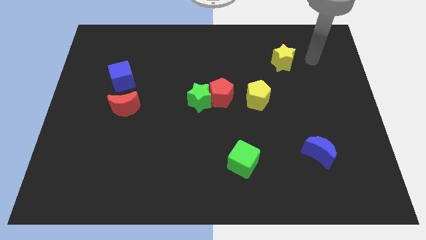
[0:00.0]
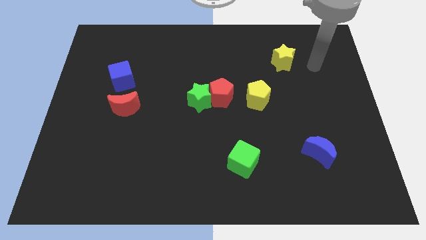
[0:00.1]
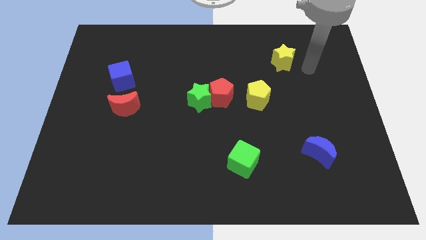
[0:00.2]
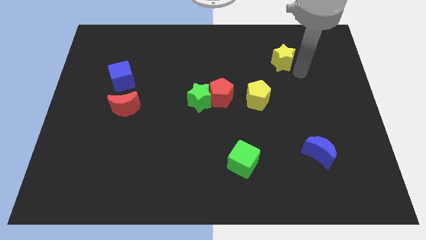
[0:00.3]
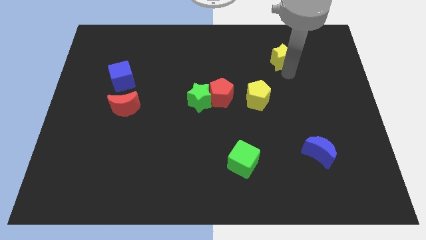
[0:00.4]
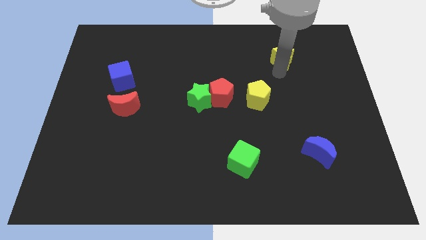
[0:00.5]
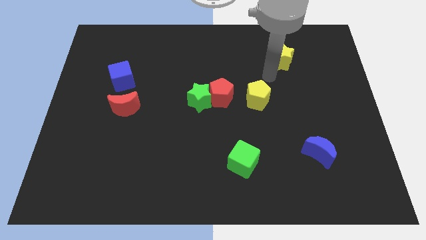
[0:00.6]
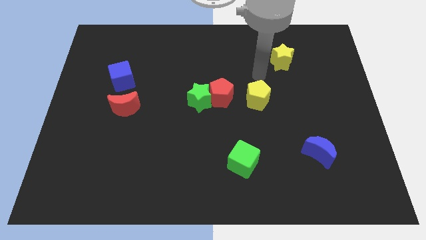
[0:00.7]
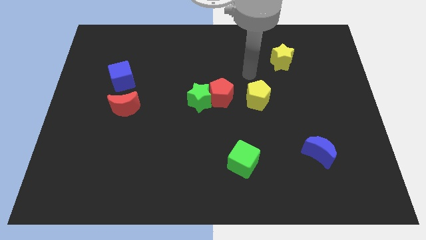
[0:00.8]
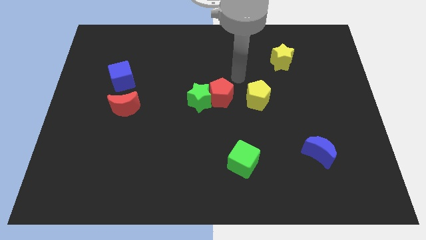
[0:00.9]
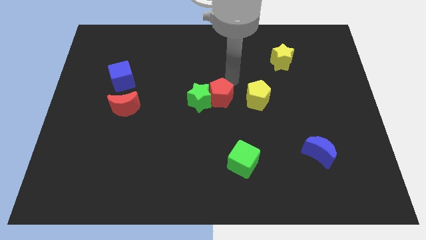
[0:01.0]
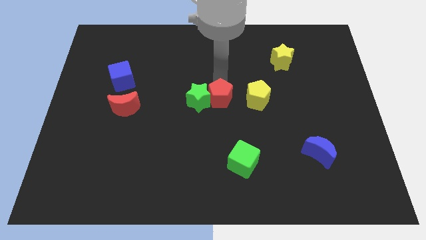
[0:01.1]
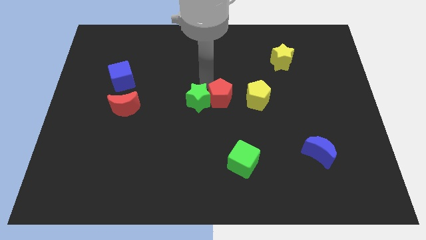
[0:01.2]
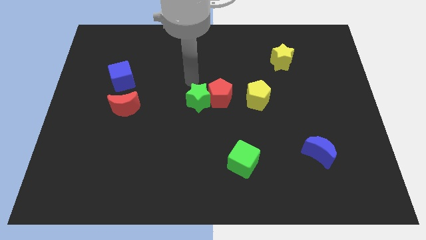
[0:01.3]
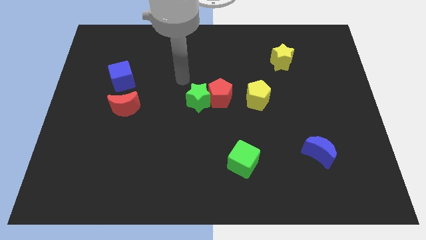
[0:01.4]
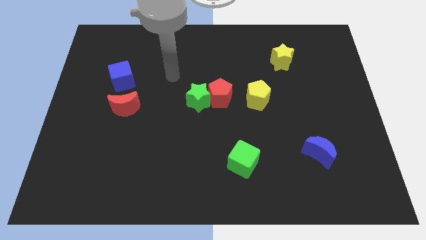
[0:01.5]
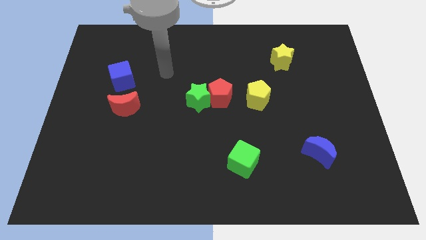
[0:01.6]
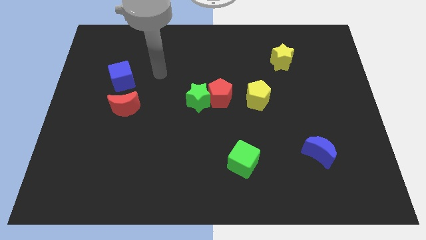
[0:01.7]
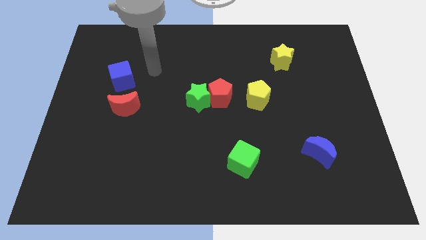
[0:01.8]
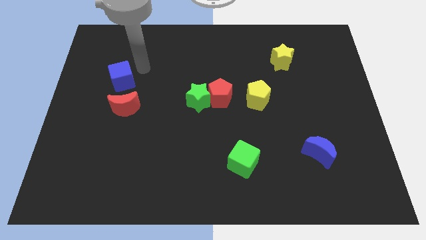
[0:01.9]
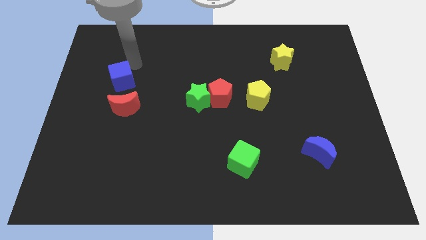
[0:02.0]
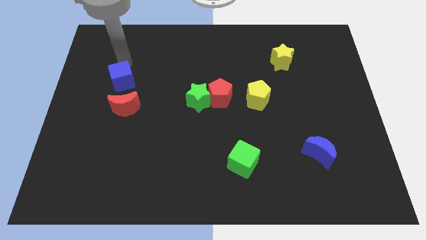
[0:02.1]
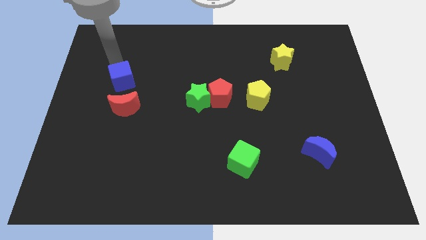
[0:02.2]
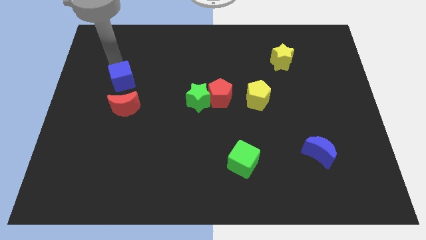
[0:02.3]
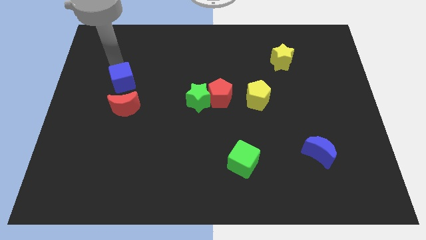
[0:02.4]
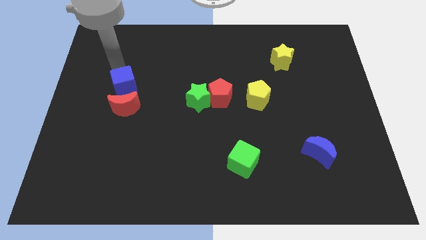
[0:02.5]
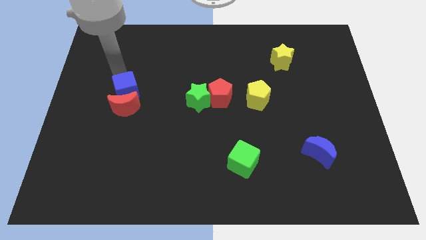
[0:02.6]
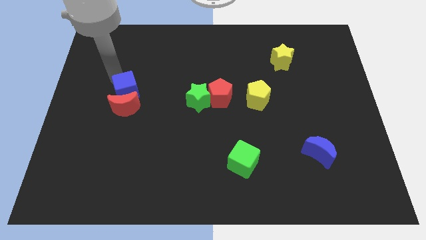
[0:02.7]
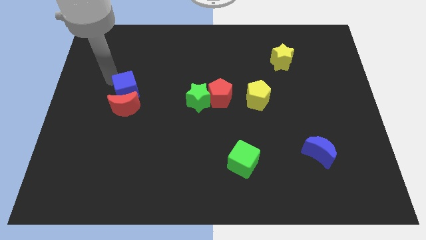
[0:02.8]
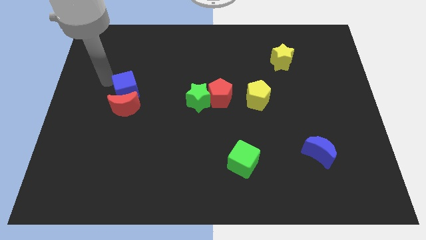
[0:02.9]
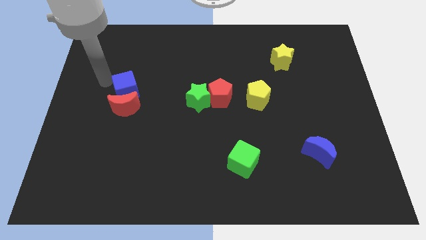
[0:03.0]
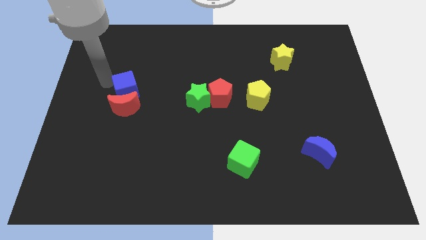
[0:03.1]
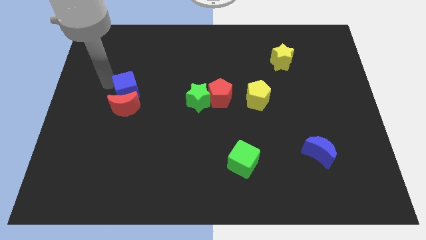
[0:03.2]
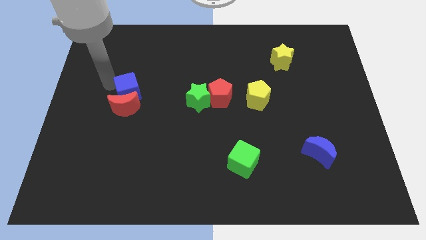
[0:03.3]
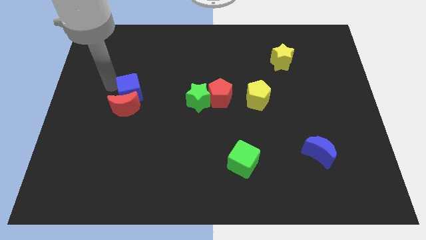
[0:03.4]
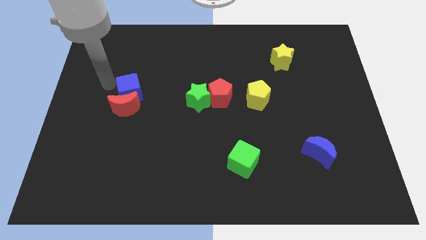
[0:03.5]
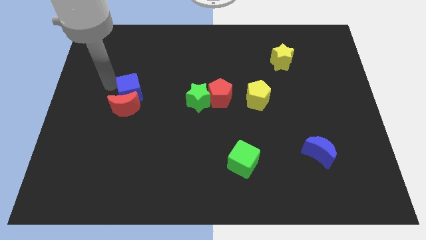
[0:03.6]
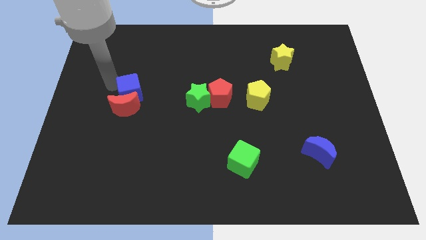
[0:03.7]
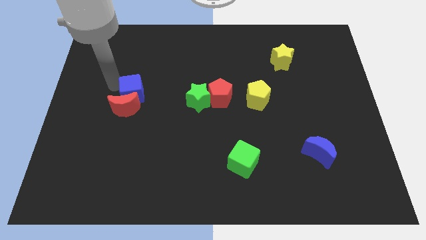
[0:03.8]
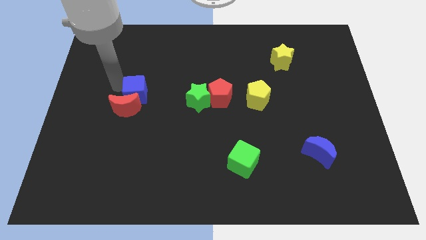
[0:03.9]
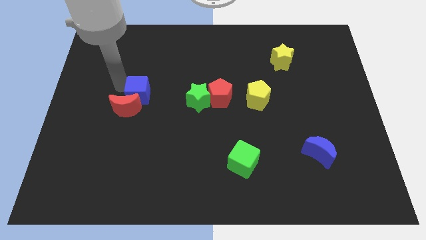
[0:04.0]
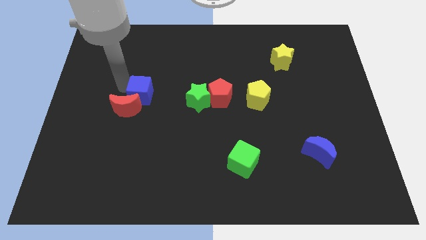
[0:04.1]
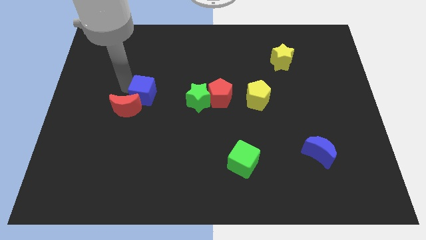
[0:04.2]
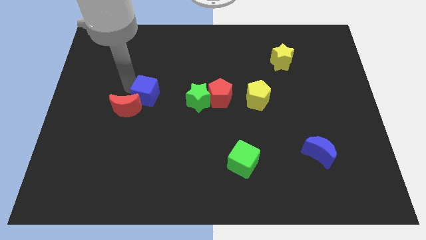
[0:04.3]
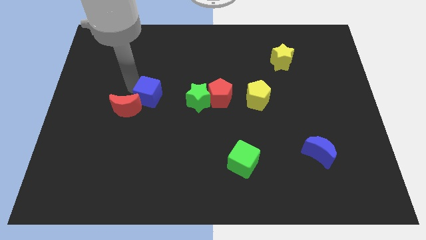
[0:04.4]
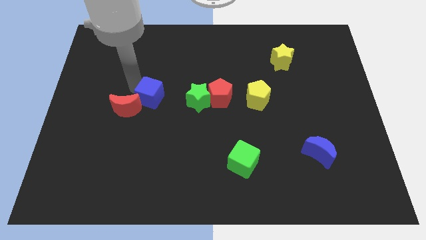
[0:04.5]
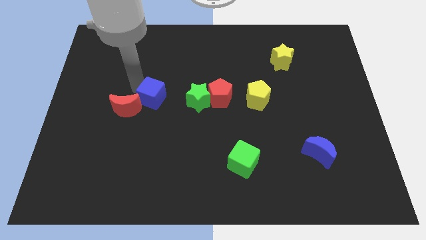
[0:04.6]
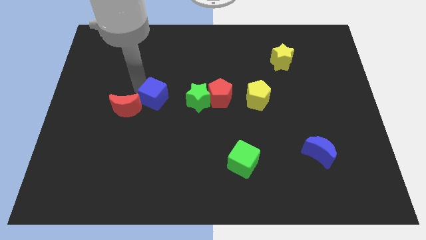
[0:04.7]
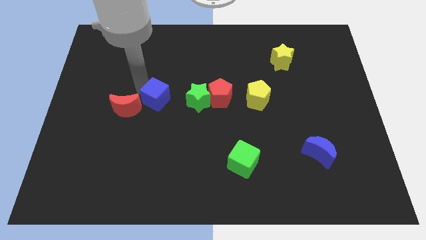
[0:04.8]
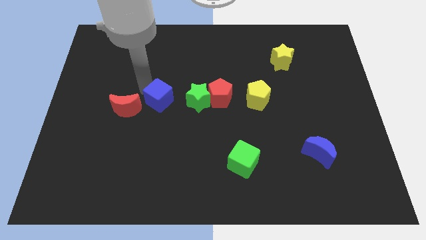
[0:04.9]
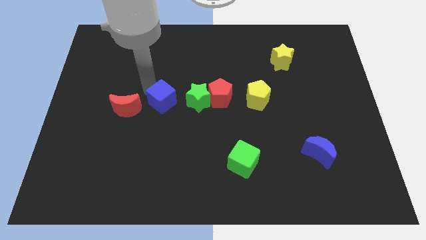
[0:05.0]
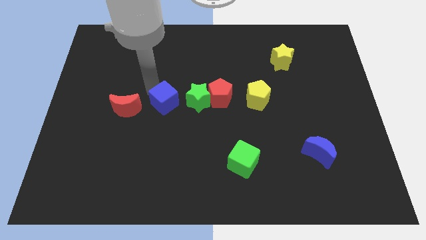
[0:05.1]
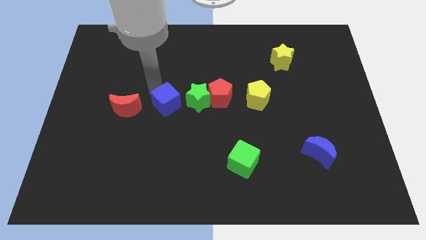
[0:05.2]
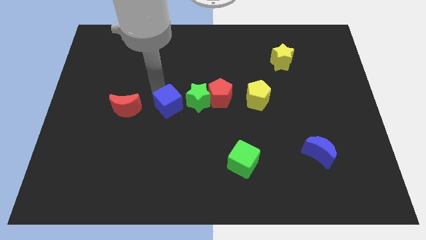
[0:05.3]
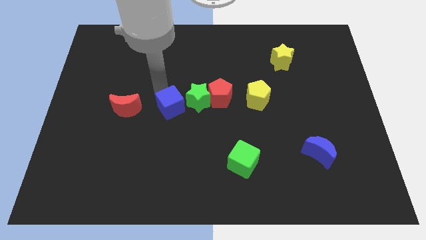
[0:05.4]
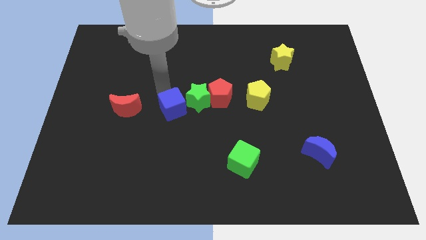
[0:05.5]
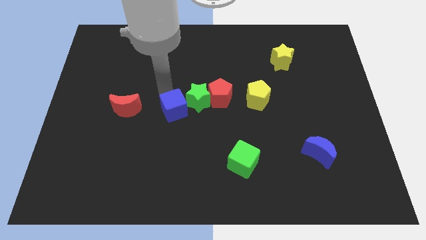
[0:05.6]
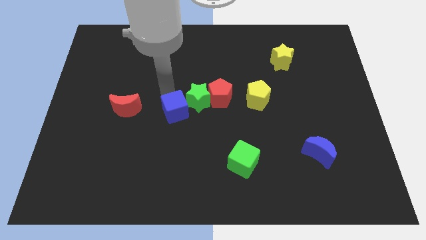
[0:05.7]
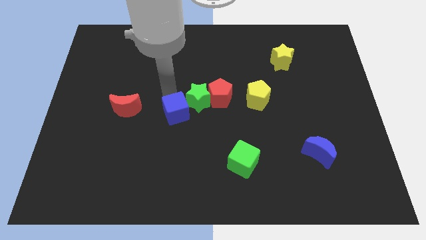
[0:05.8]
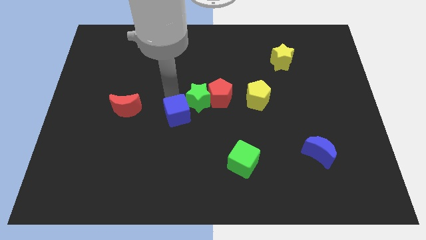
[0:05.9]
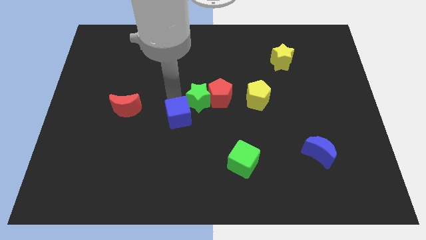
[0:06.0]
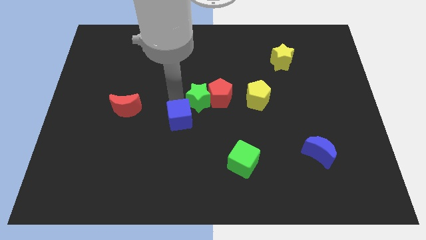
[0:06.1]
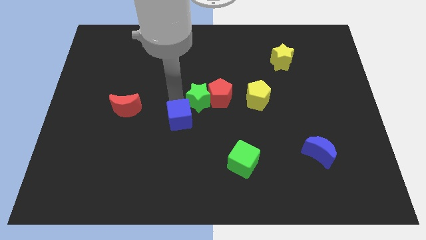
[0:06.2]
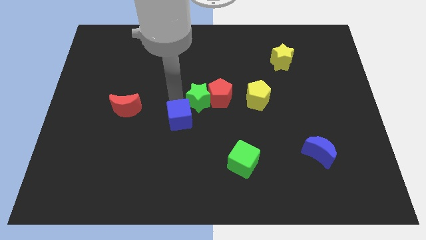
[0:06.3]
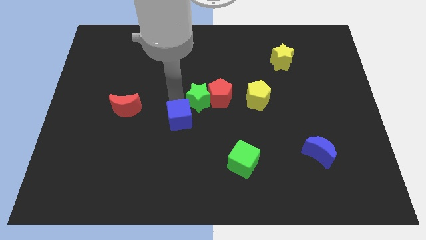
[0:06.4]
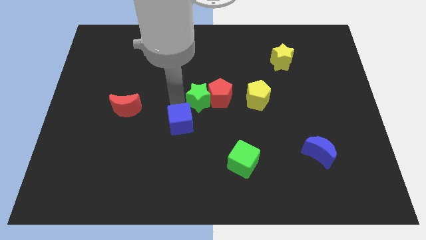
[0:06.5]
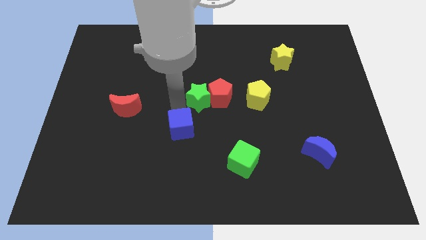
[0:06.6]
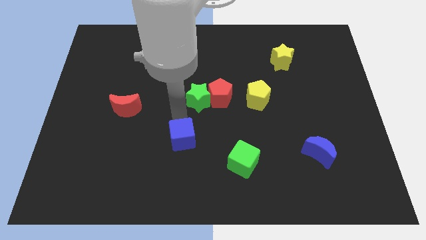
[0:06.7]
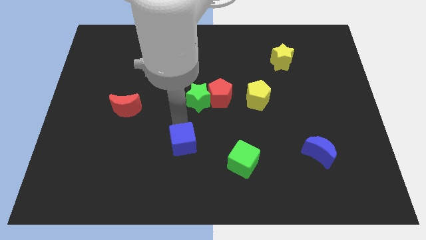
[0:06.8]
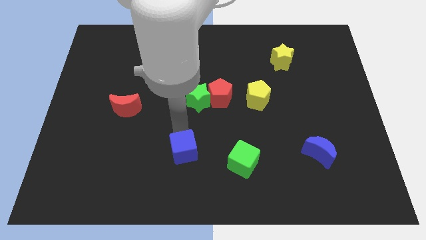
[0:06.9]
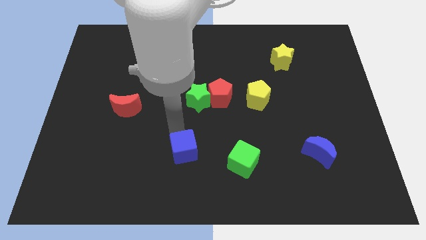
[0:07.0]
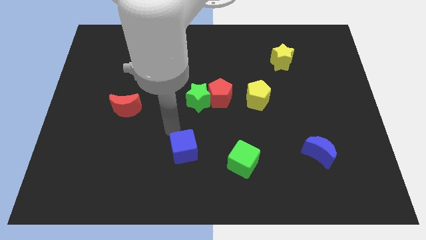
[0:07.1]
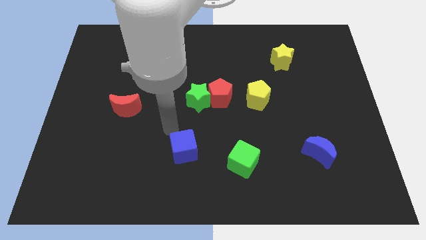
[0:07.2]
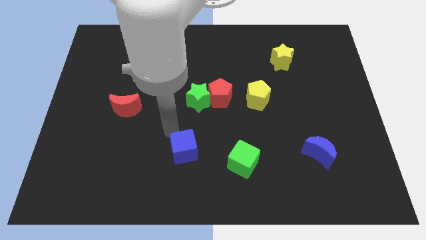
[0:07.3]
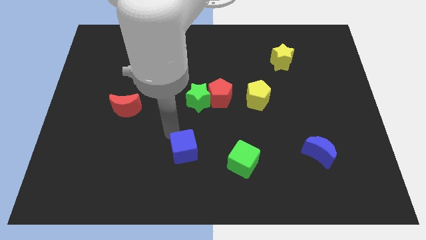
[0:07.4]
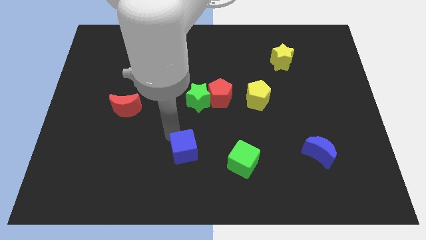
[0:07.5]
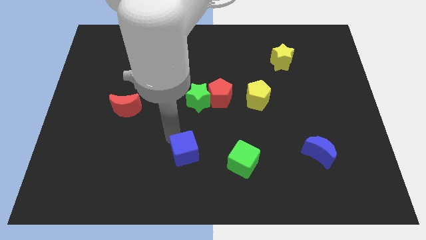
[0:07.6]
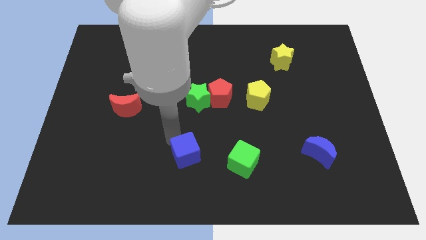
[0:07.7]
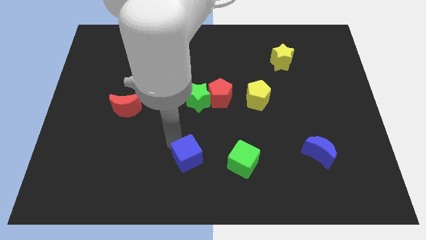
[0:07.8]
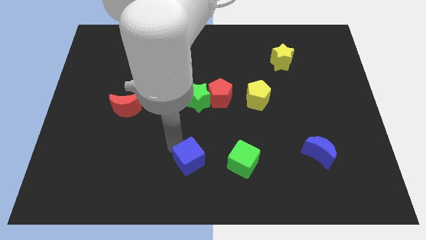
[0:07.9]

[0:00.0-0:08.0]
put the blue cube to the bottom side
